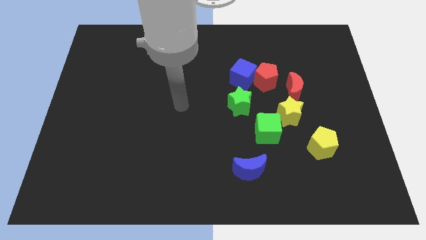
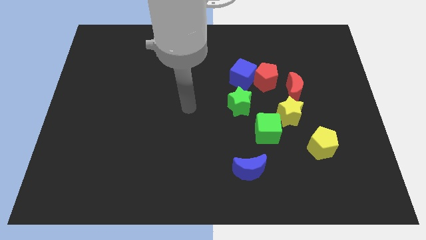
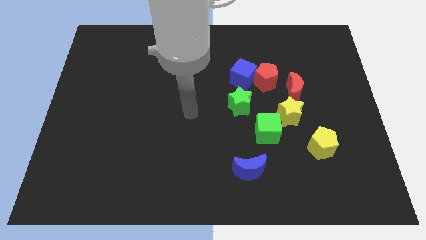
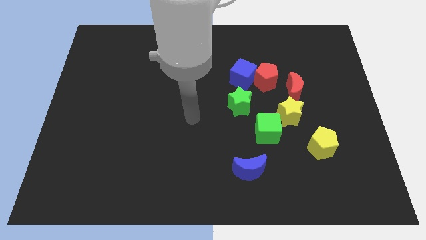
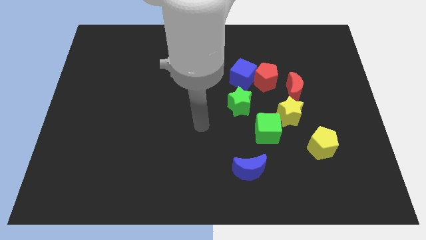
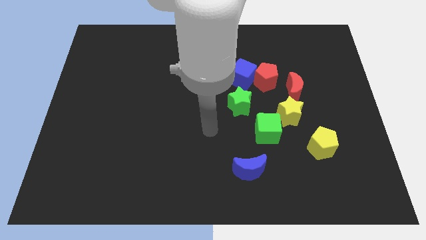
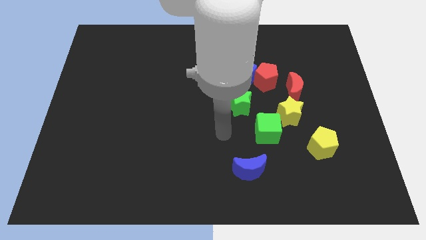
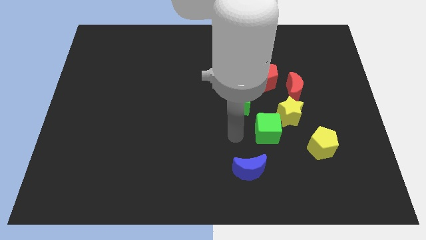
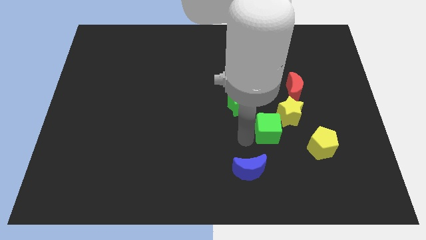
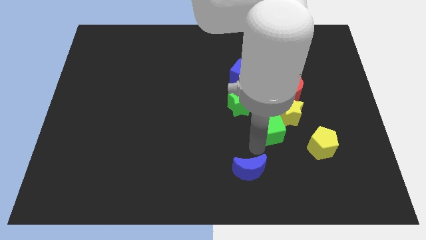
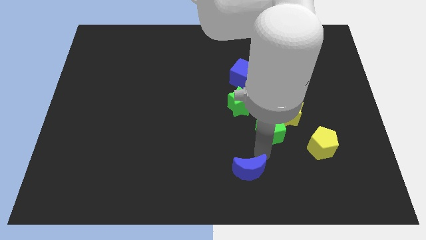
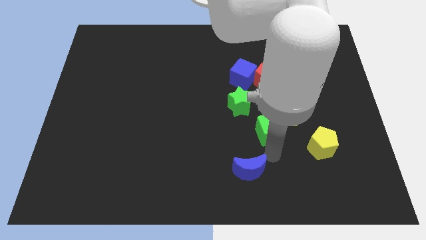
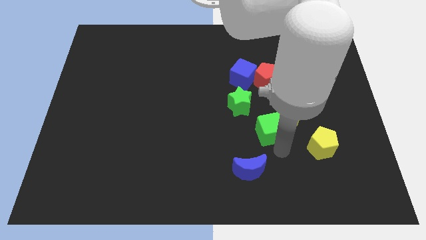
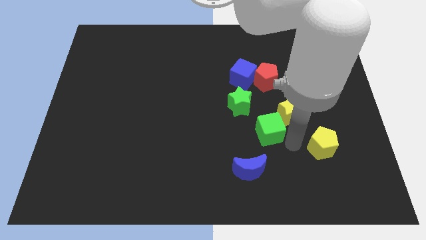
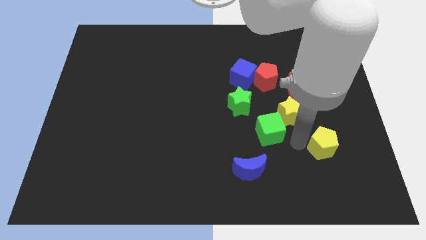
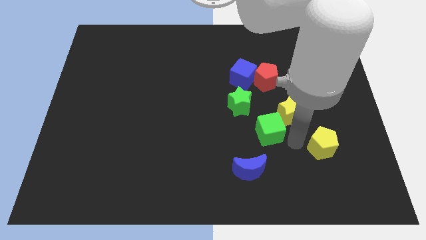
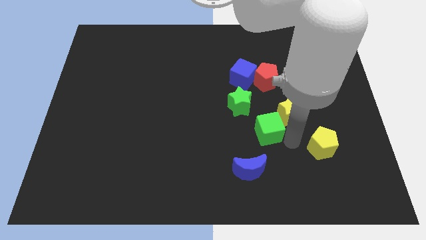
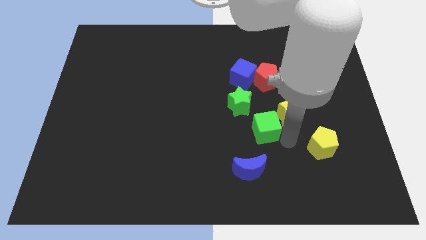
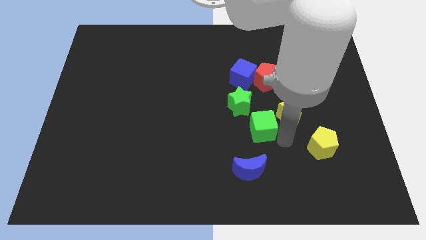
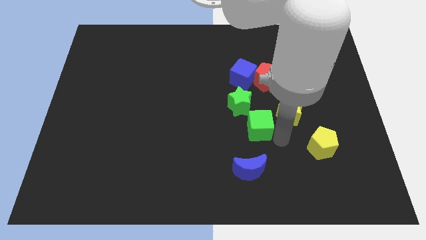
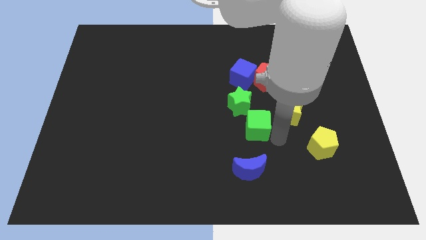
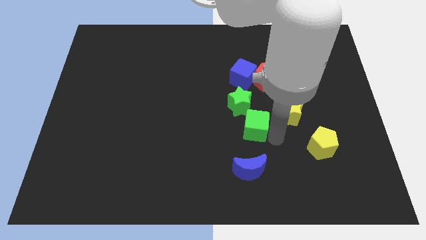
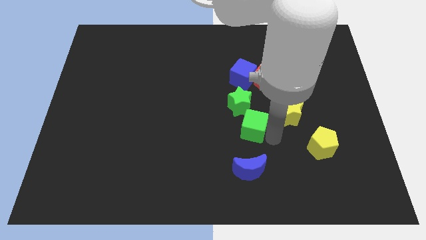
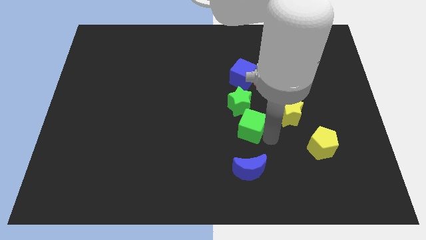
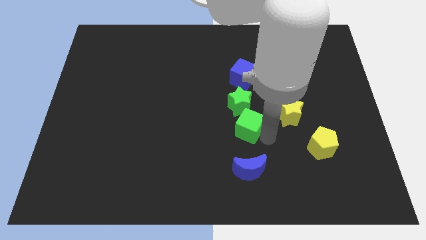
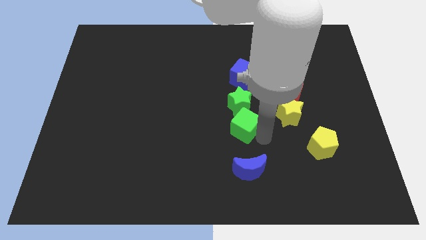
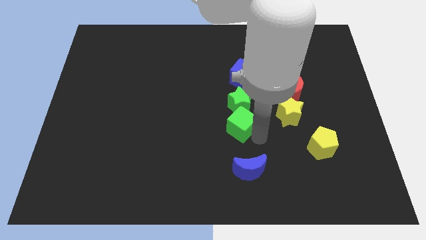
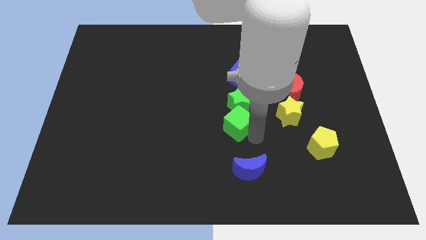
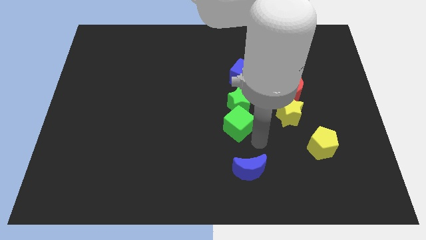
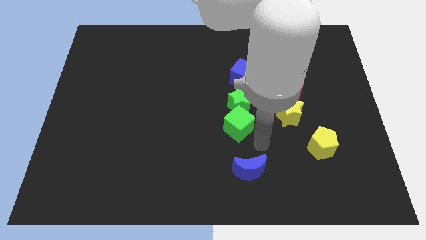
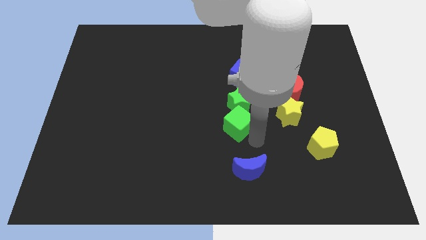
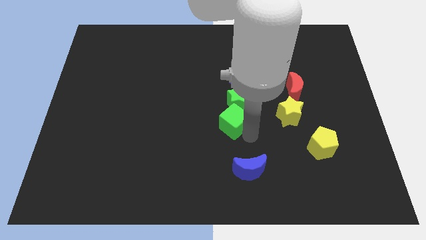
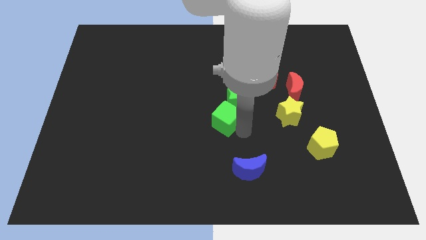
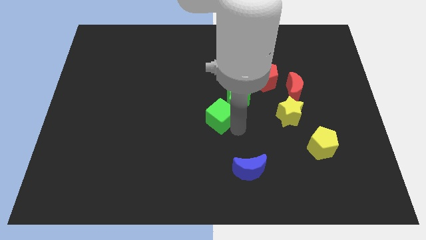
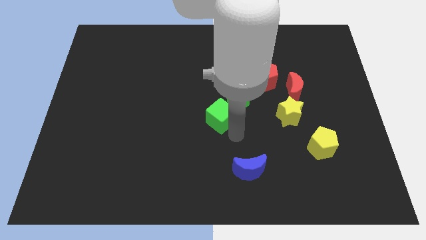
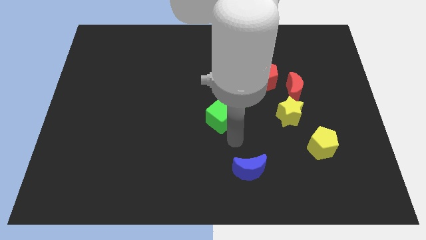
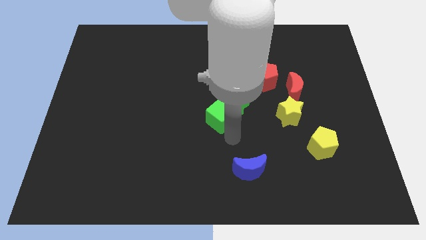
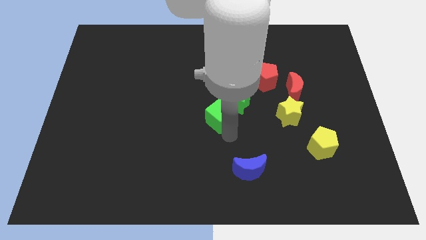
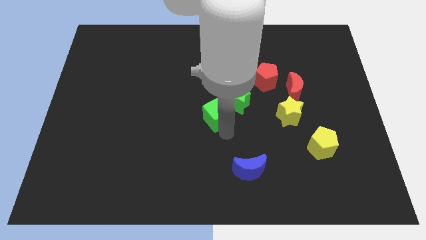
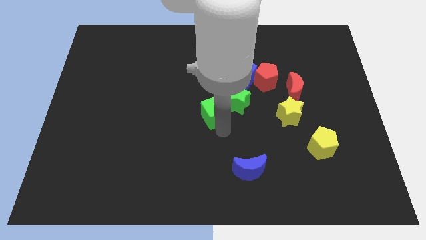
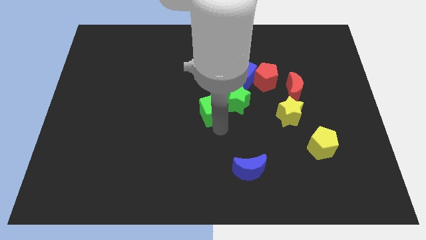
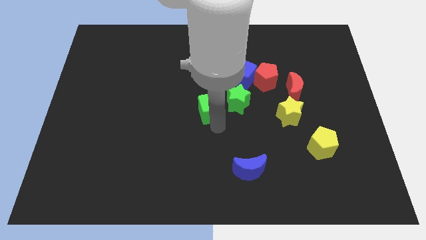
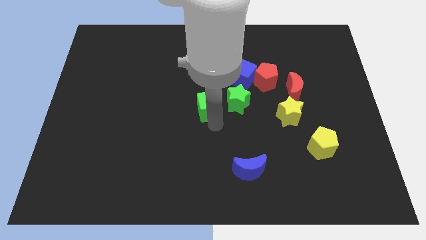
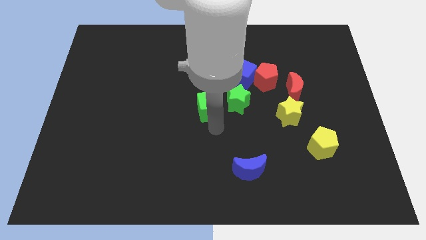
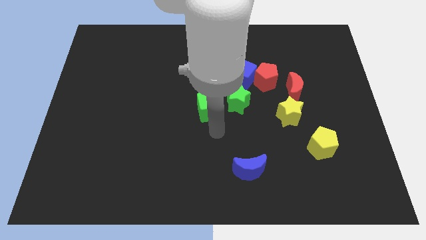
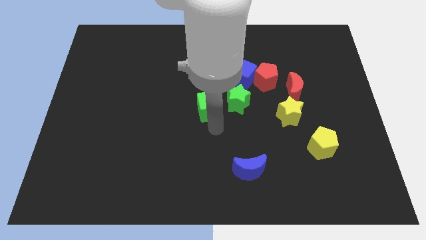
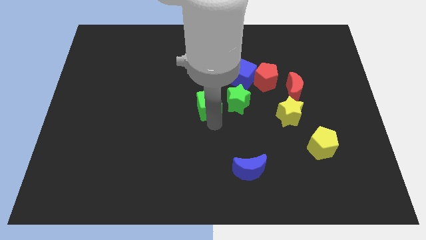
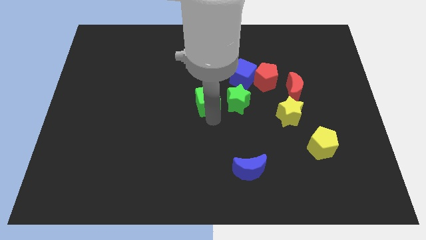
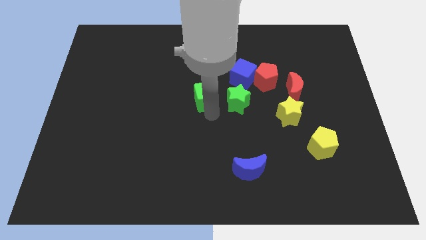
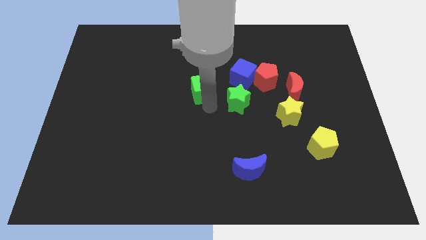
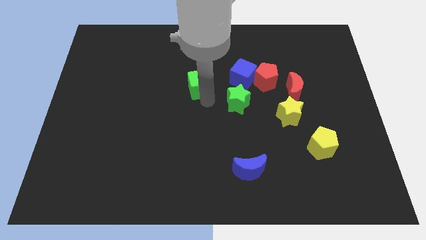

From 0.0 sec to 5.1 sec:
slide the green cube up and to the left

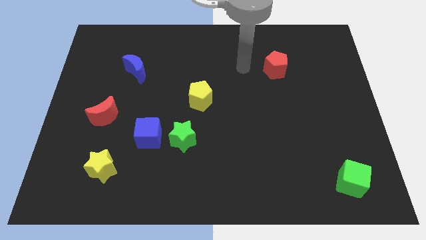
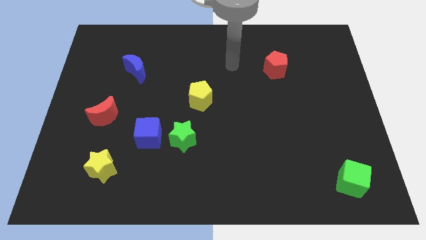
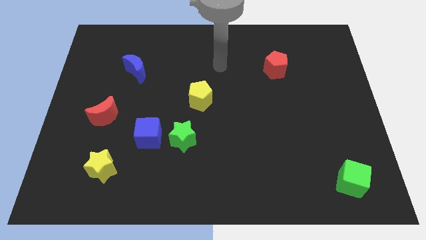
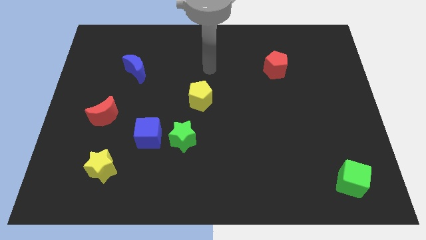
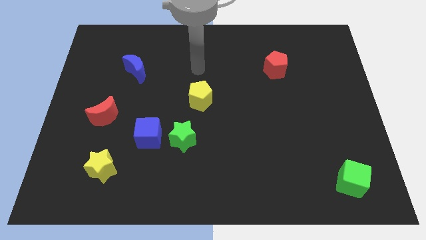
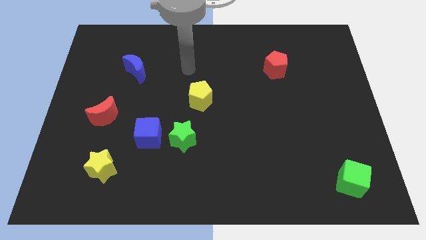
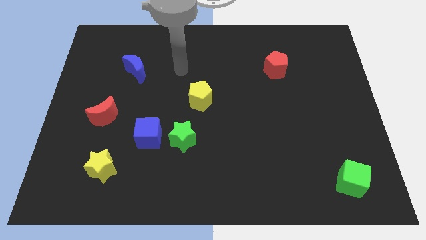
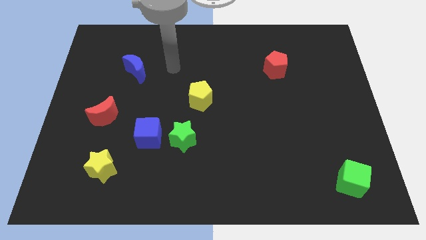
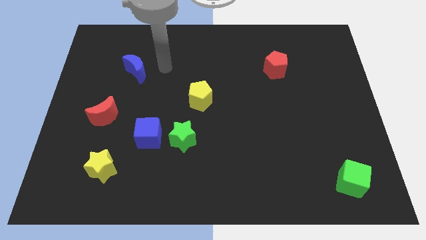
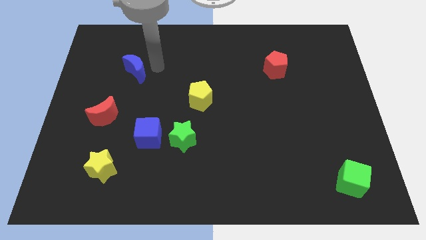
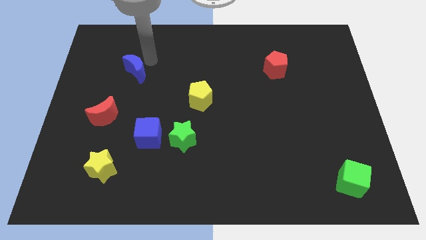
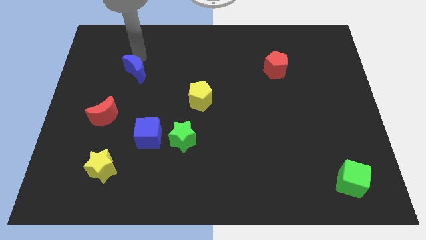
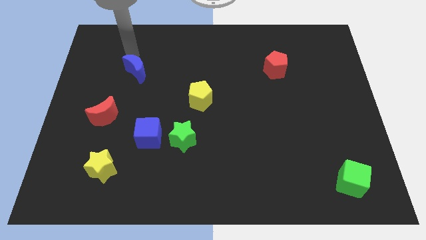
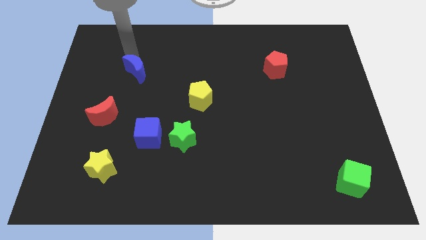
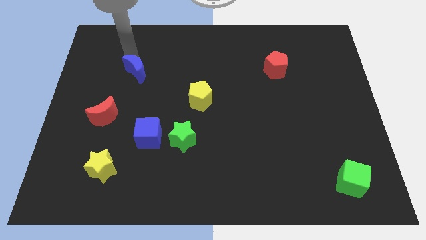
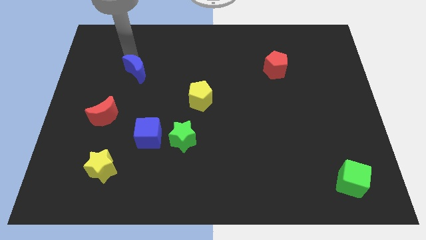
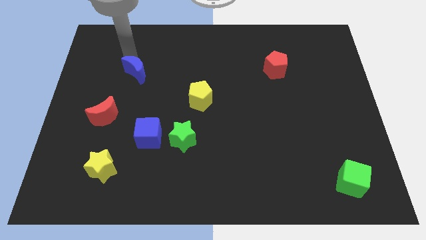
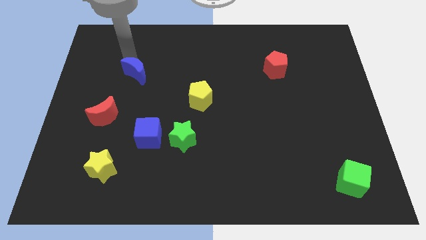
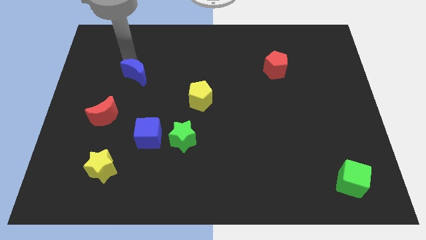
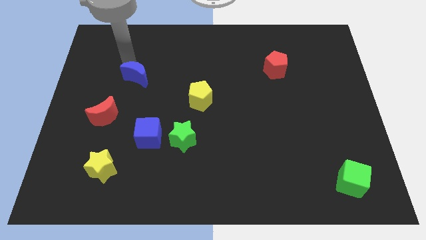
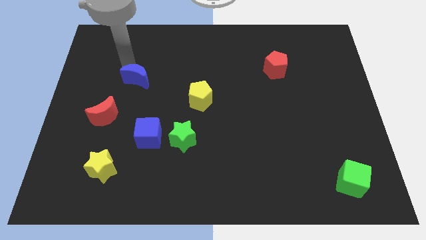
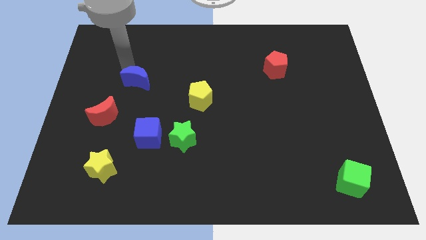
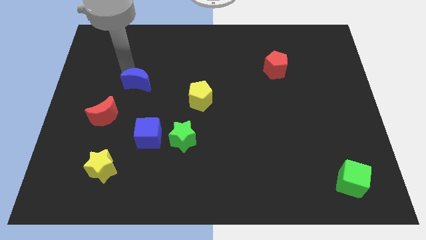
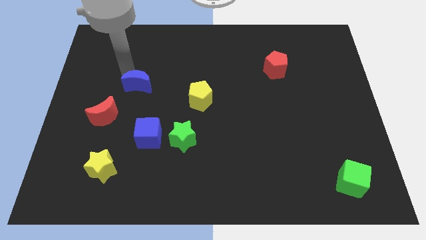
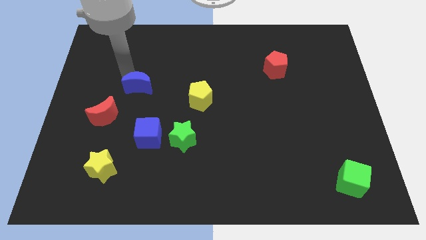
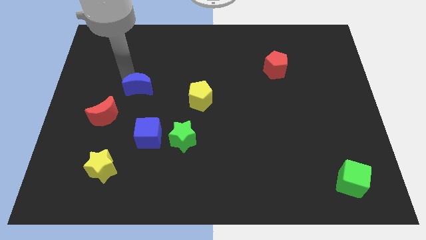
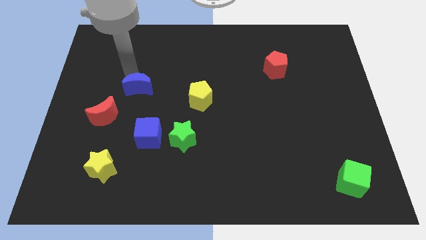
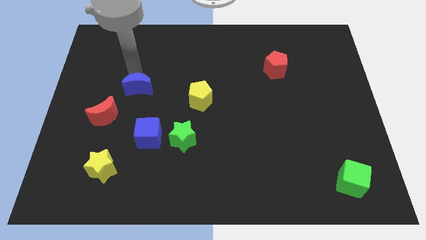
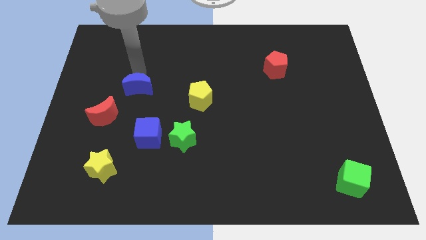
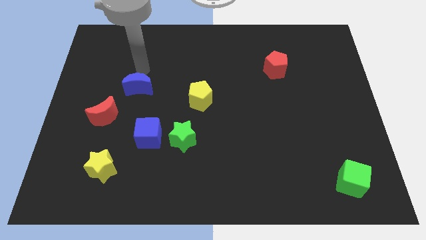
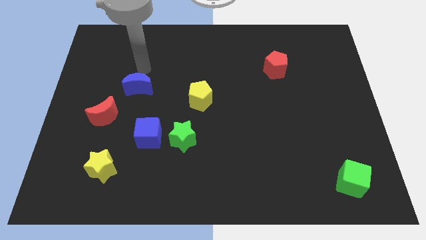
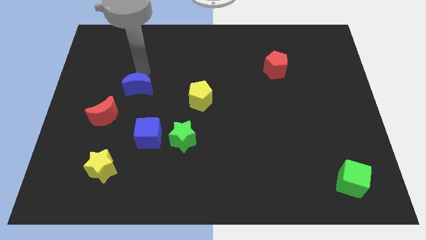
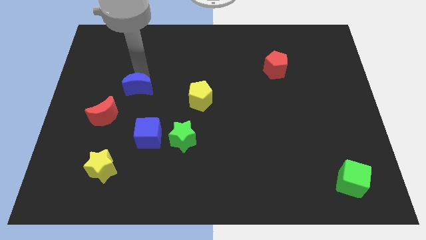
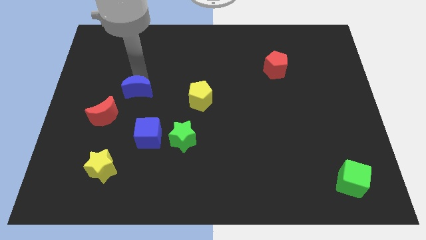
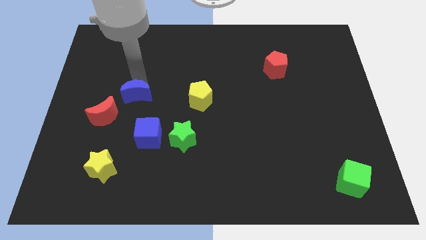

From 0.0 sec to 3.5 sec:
push the blue moon a bit down
